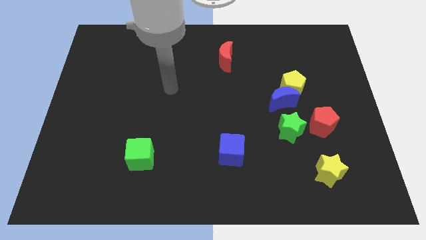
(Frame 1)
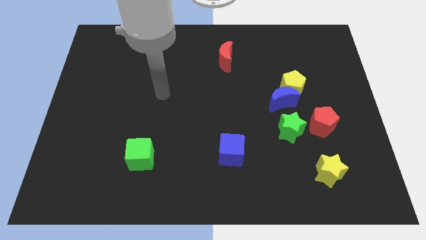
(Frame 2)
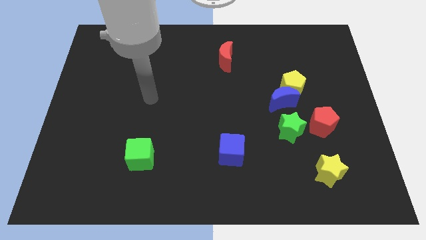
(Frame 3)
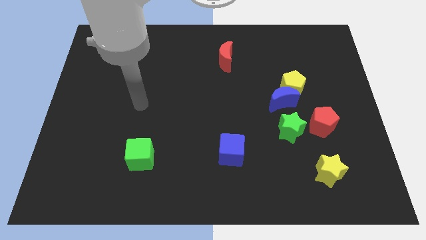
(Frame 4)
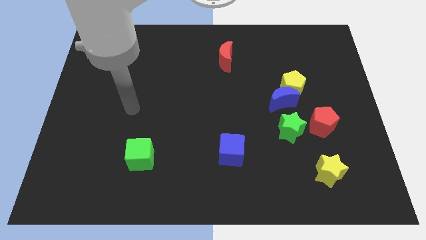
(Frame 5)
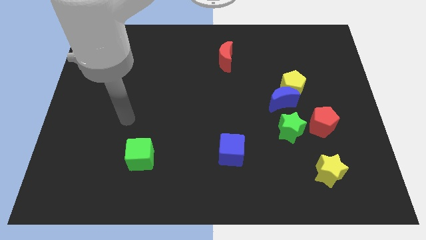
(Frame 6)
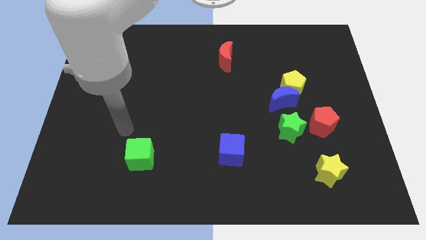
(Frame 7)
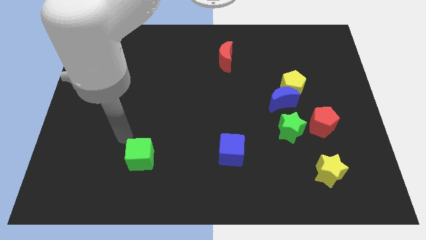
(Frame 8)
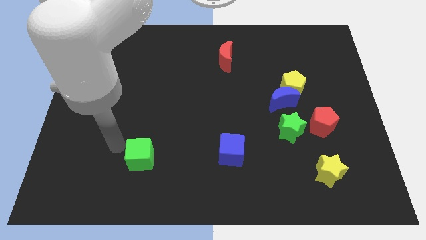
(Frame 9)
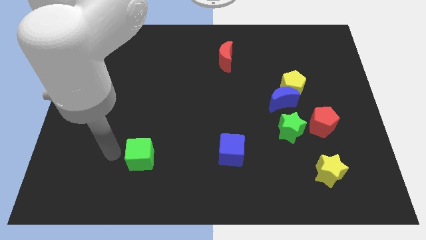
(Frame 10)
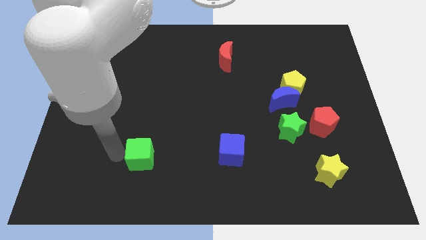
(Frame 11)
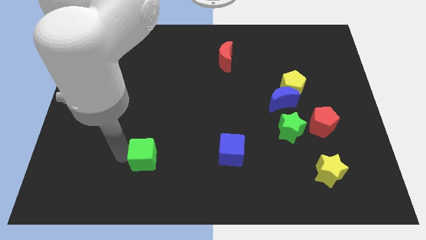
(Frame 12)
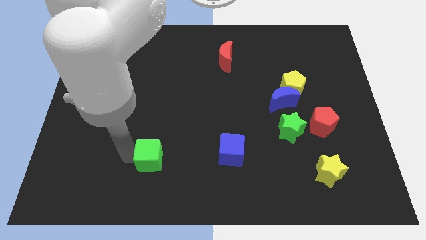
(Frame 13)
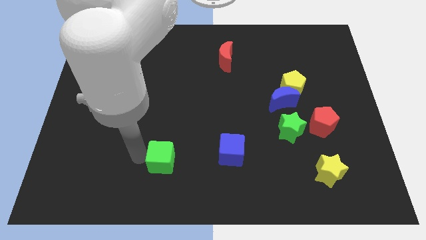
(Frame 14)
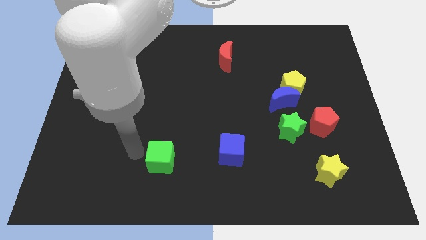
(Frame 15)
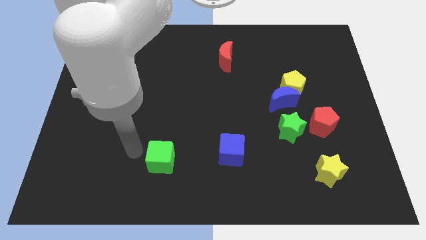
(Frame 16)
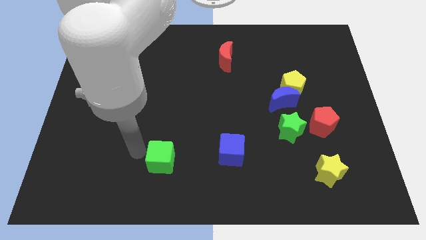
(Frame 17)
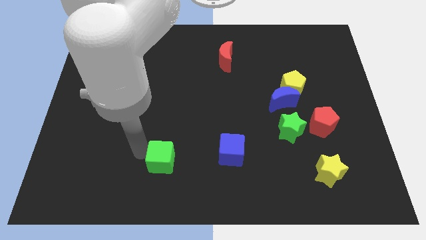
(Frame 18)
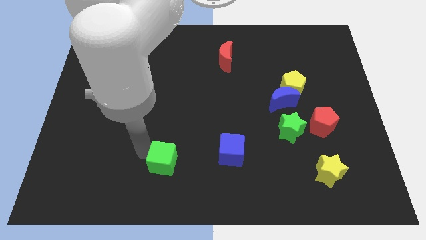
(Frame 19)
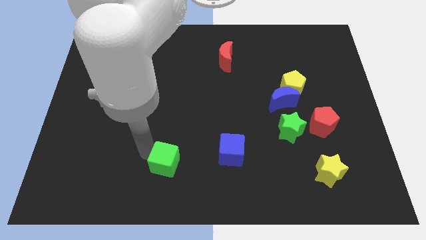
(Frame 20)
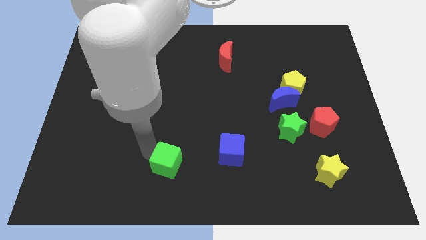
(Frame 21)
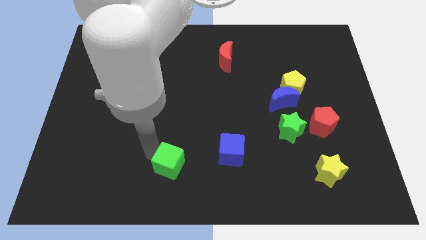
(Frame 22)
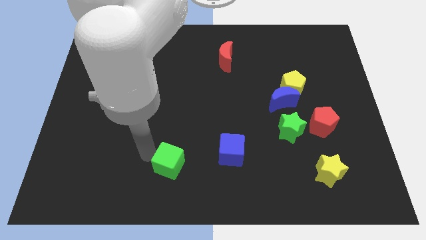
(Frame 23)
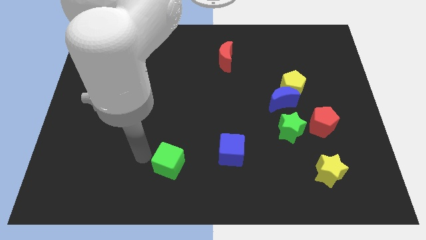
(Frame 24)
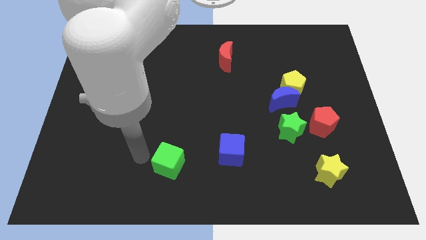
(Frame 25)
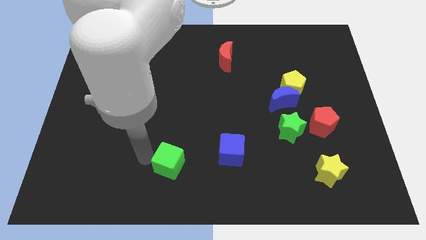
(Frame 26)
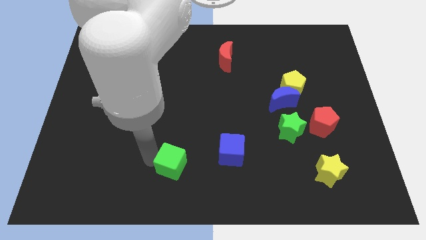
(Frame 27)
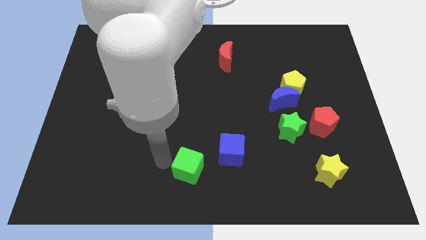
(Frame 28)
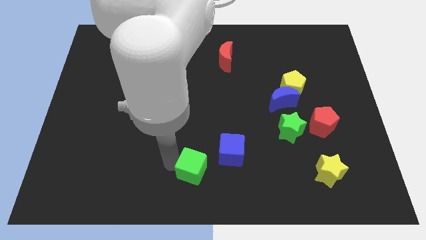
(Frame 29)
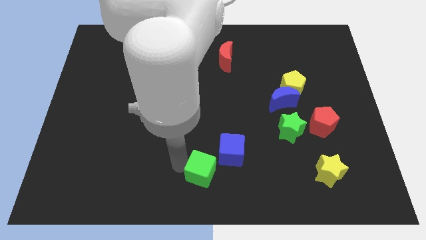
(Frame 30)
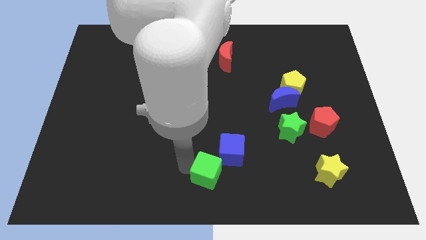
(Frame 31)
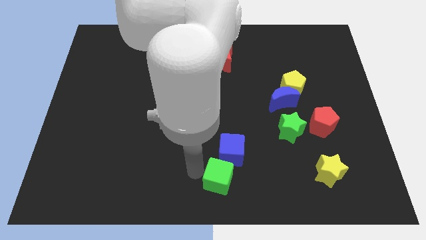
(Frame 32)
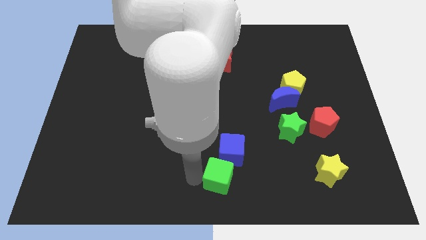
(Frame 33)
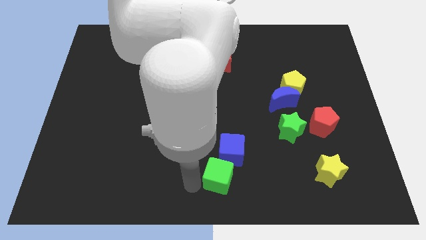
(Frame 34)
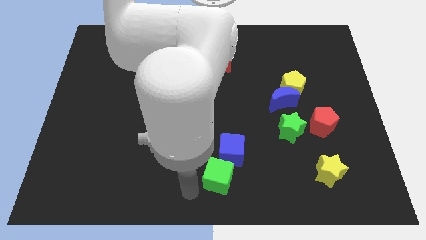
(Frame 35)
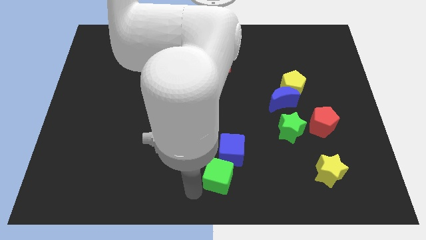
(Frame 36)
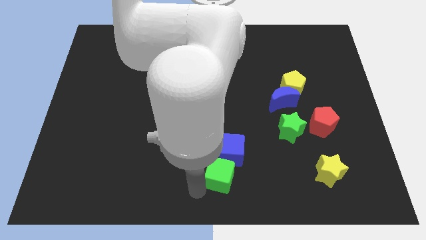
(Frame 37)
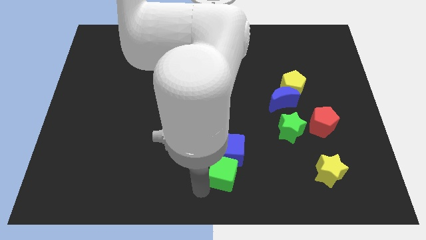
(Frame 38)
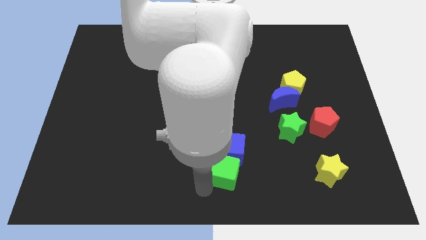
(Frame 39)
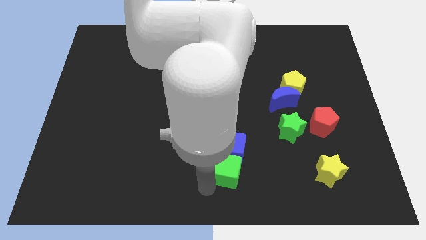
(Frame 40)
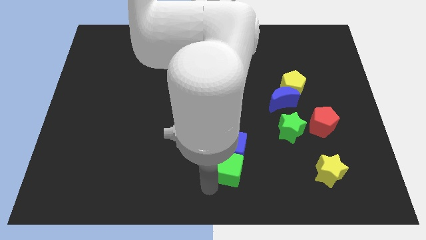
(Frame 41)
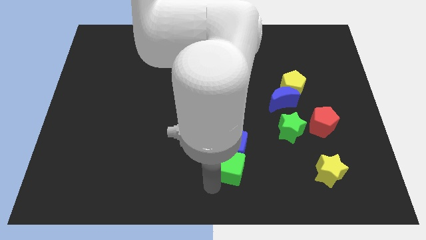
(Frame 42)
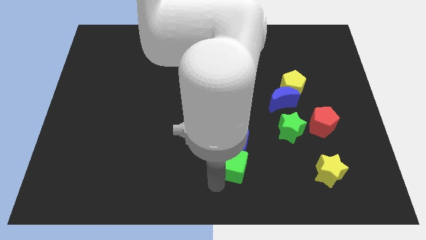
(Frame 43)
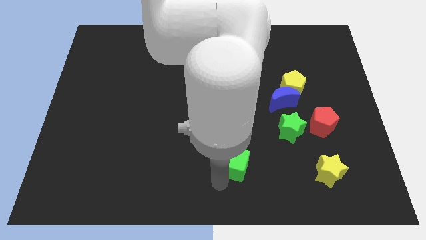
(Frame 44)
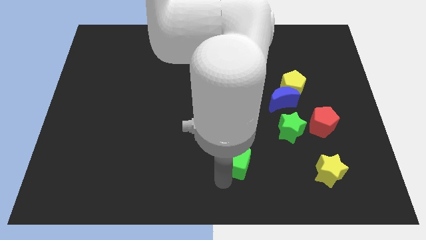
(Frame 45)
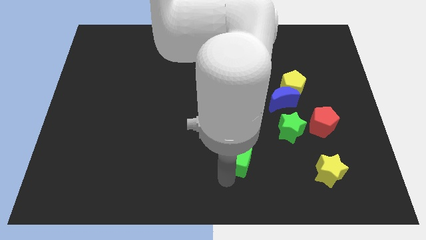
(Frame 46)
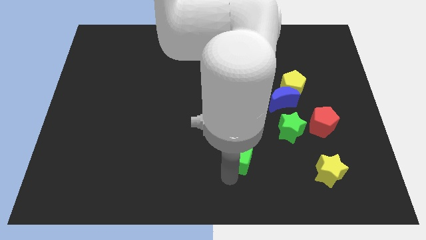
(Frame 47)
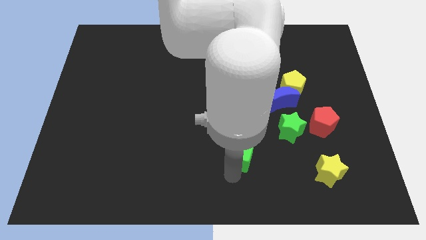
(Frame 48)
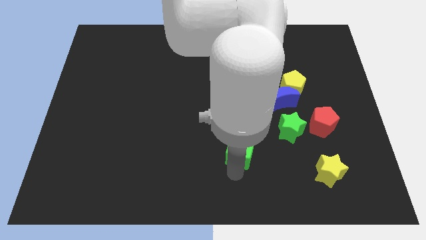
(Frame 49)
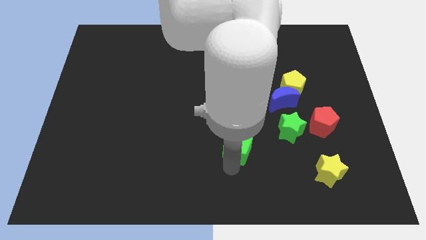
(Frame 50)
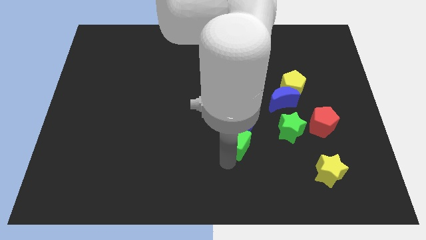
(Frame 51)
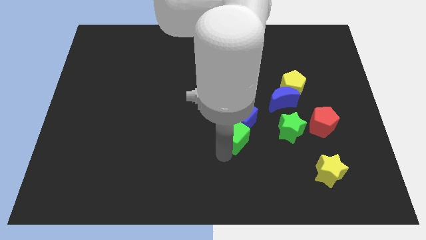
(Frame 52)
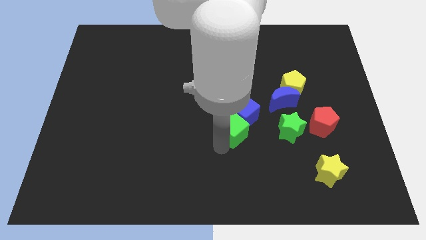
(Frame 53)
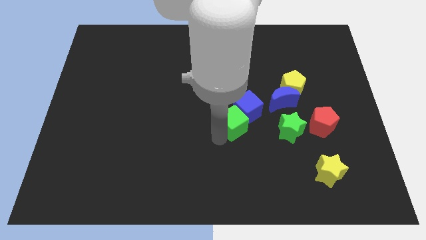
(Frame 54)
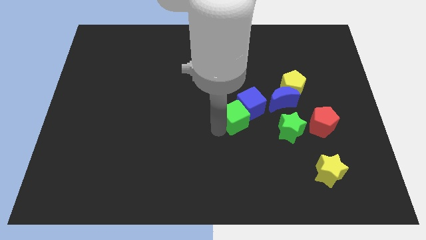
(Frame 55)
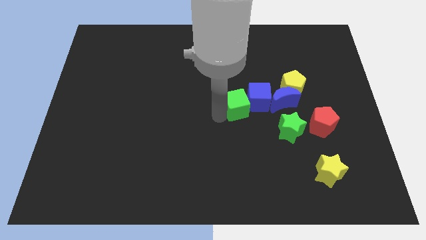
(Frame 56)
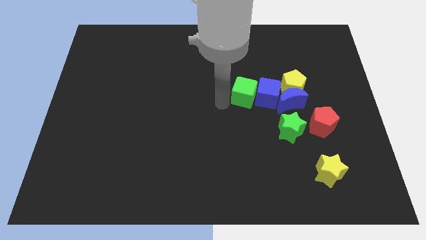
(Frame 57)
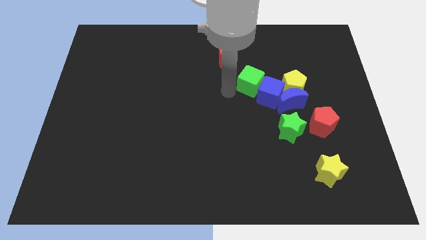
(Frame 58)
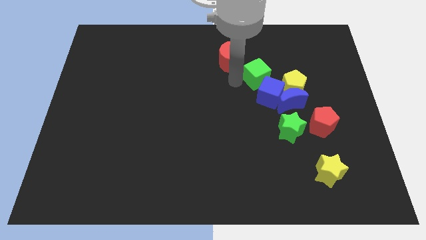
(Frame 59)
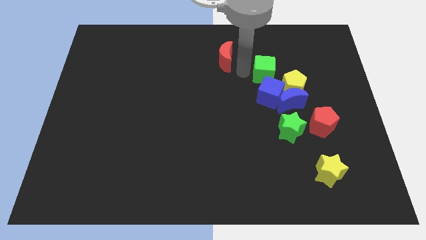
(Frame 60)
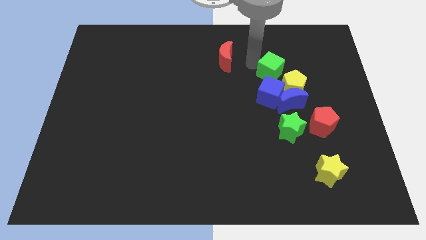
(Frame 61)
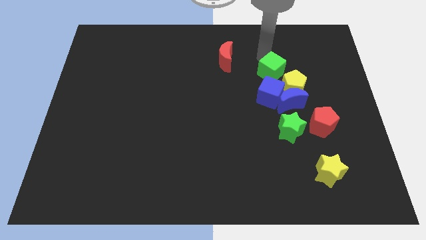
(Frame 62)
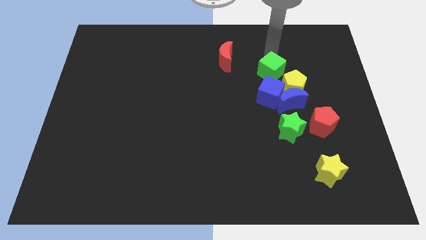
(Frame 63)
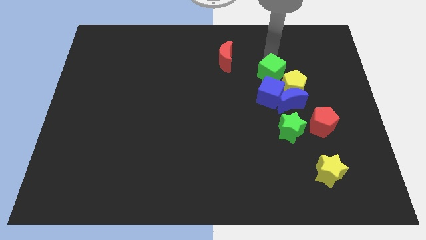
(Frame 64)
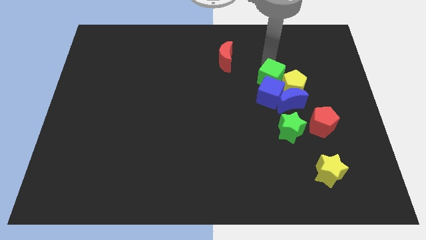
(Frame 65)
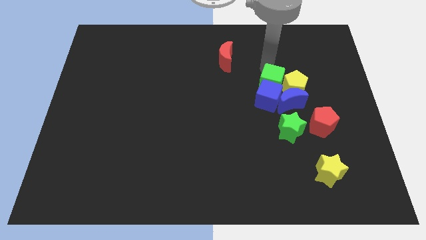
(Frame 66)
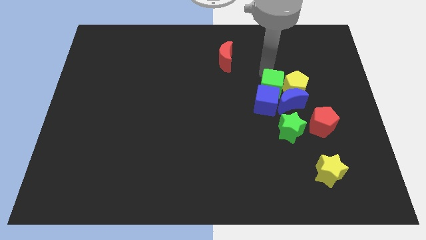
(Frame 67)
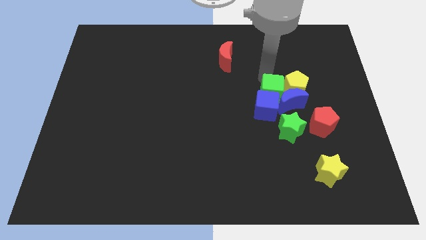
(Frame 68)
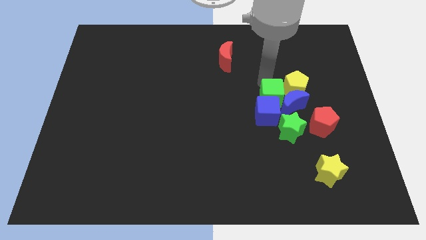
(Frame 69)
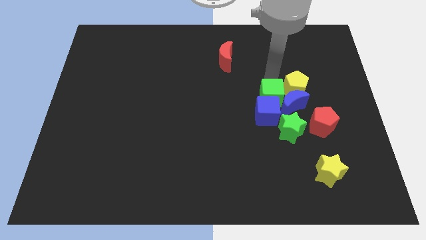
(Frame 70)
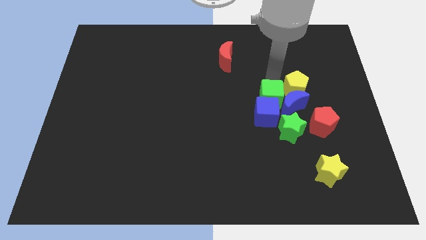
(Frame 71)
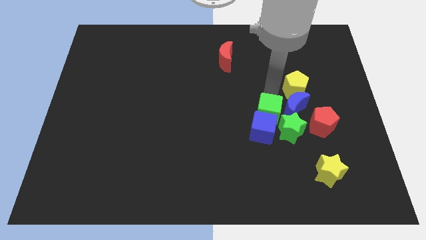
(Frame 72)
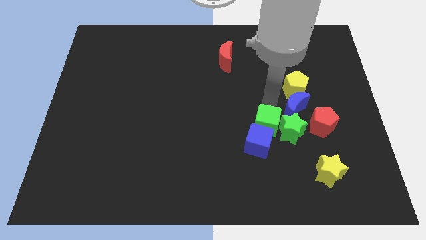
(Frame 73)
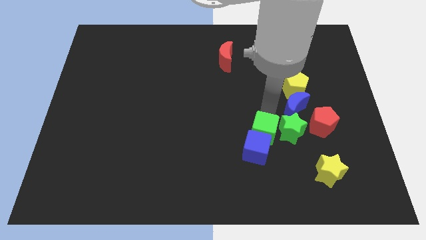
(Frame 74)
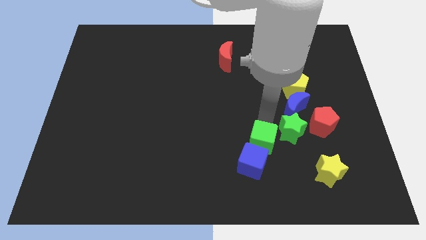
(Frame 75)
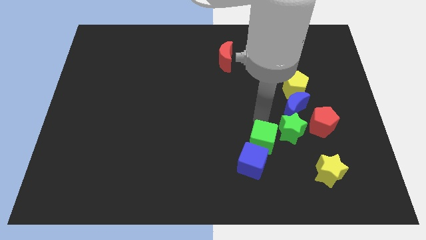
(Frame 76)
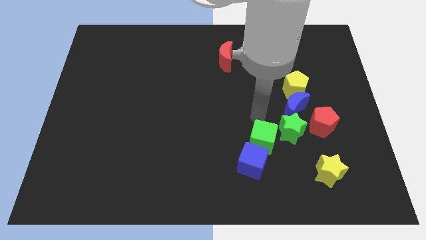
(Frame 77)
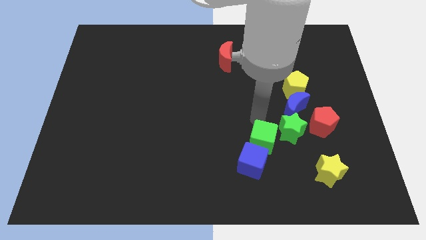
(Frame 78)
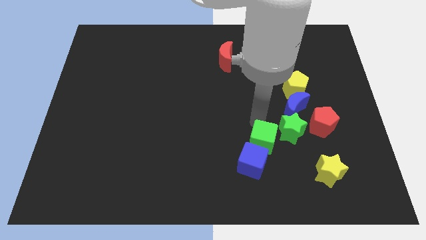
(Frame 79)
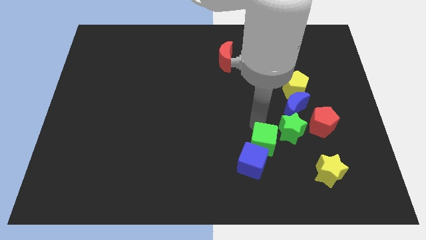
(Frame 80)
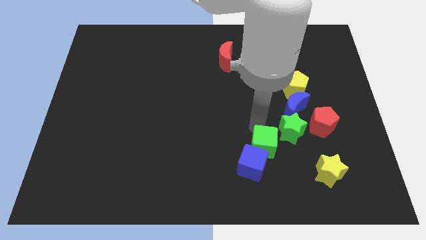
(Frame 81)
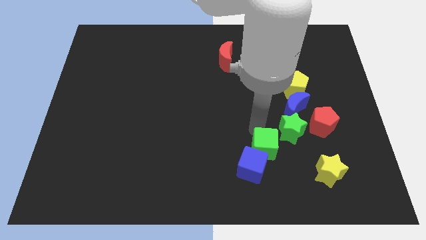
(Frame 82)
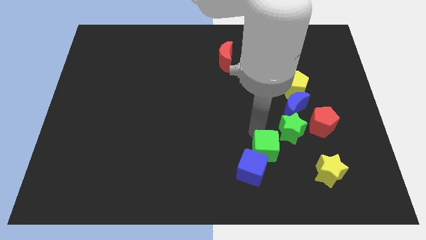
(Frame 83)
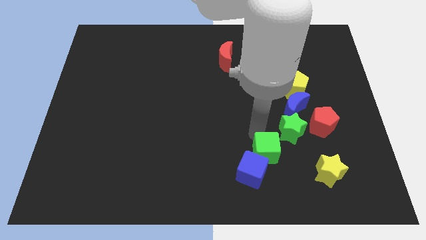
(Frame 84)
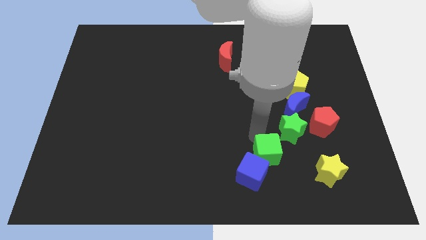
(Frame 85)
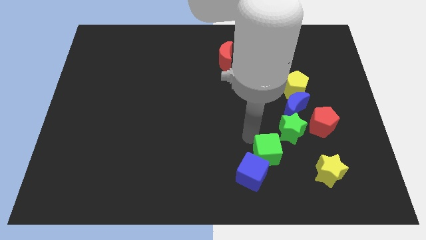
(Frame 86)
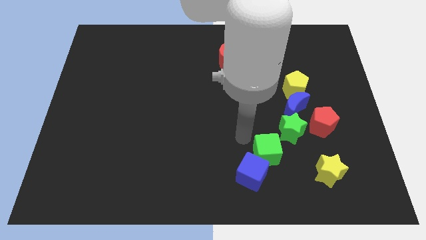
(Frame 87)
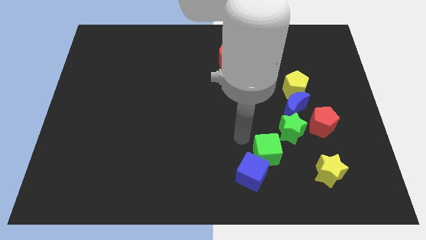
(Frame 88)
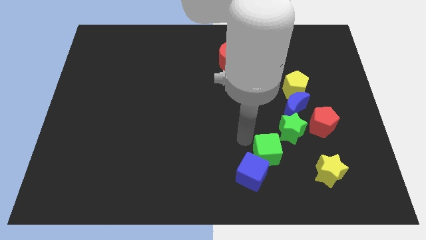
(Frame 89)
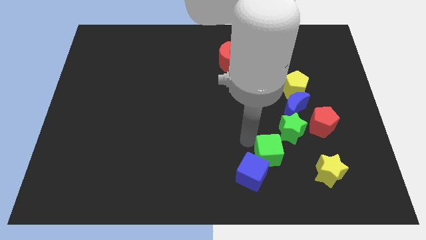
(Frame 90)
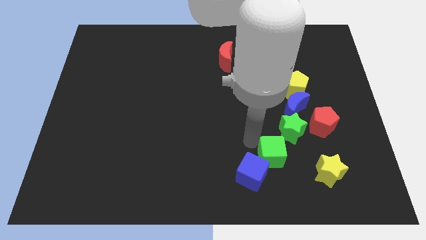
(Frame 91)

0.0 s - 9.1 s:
move the green cube to the bottom side of the green star
